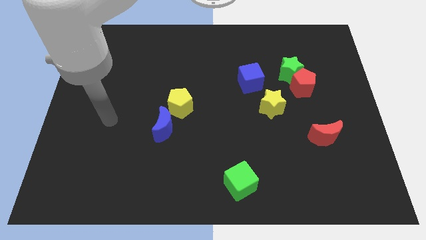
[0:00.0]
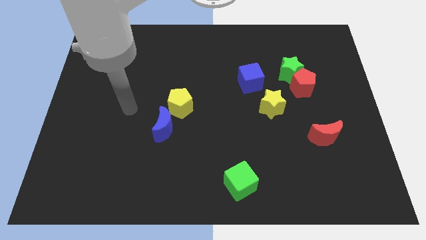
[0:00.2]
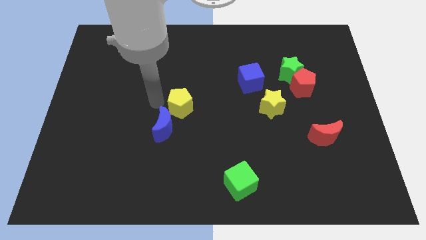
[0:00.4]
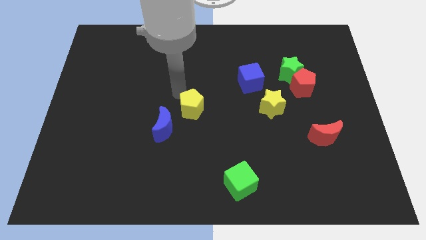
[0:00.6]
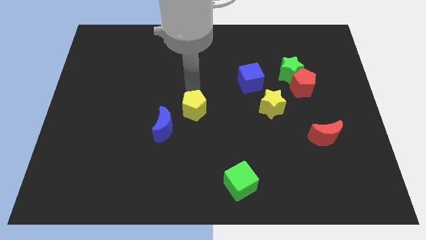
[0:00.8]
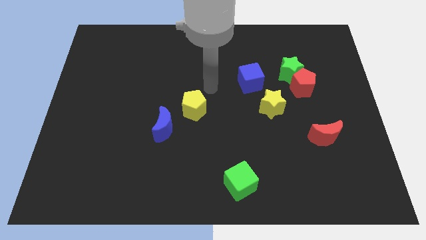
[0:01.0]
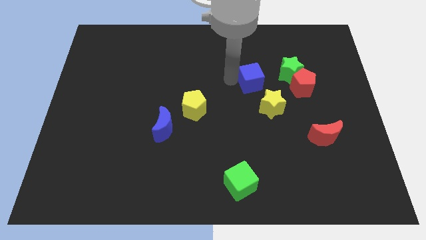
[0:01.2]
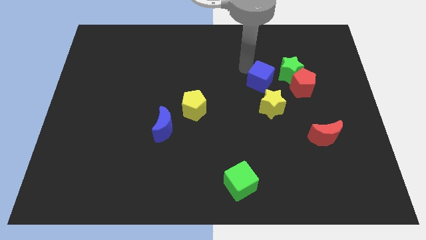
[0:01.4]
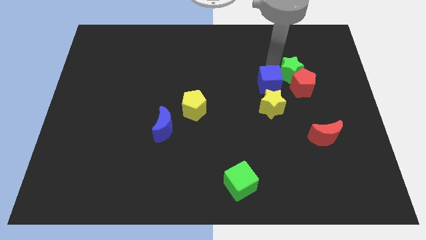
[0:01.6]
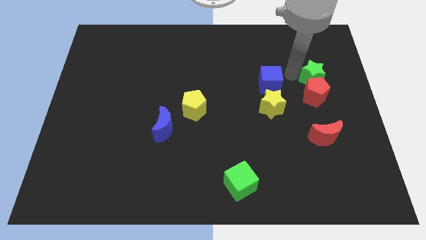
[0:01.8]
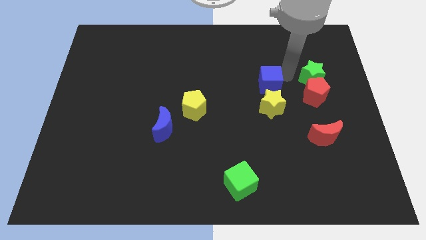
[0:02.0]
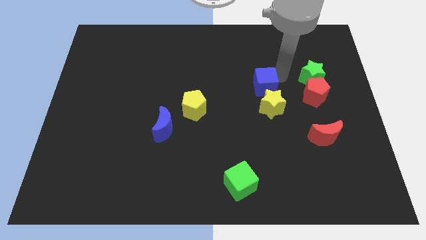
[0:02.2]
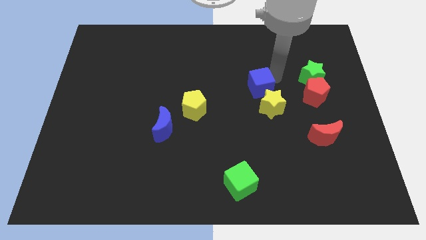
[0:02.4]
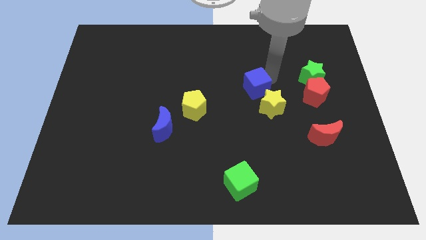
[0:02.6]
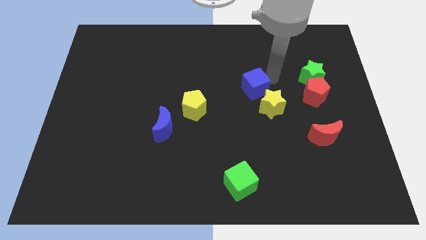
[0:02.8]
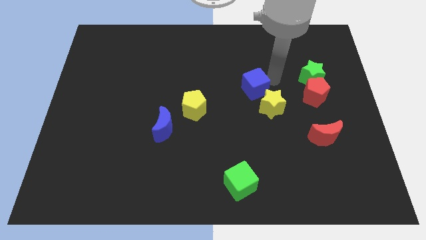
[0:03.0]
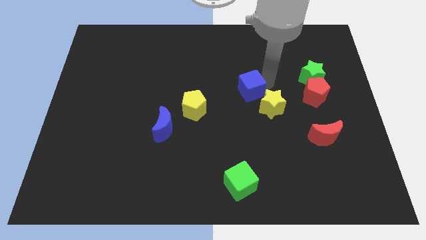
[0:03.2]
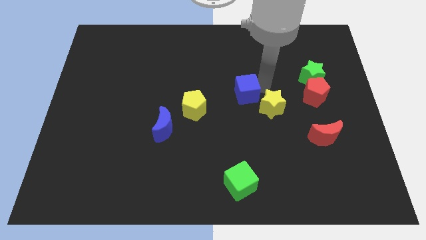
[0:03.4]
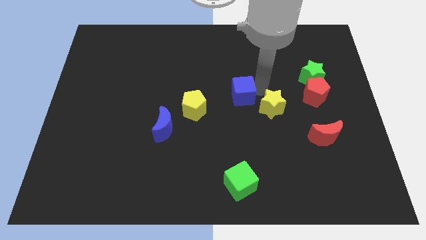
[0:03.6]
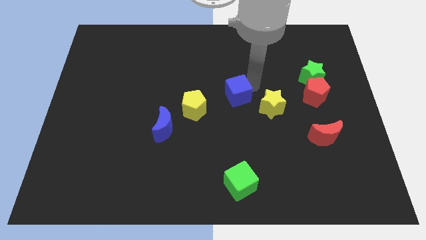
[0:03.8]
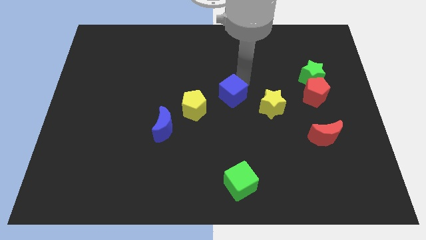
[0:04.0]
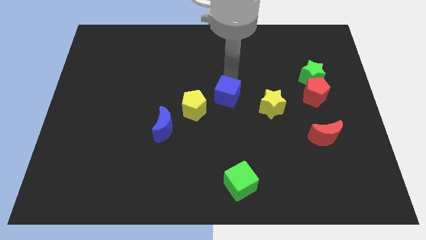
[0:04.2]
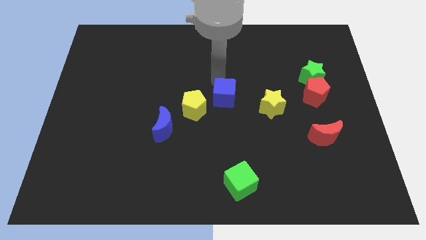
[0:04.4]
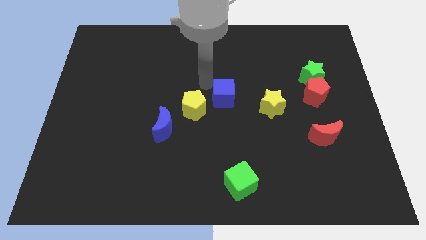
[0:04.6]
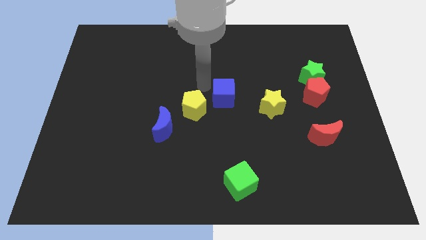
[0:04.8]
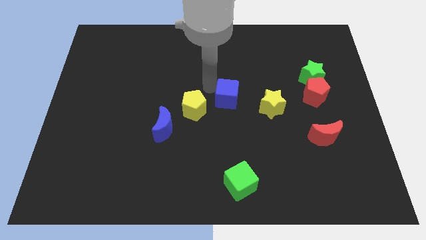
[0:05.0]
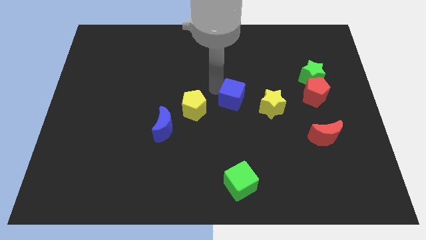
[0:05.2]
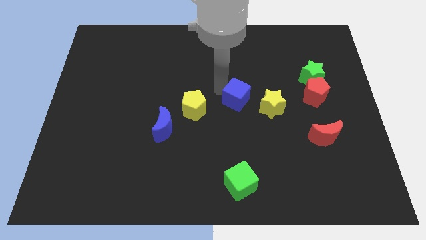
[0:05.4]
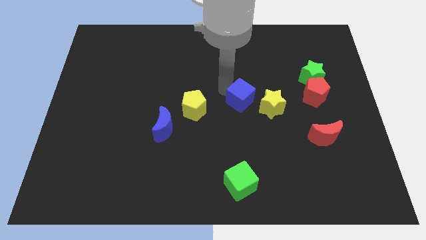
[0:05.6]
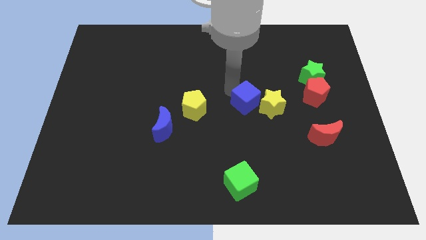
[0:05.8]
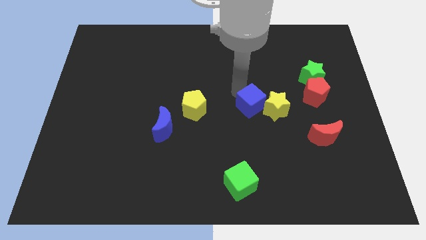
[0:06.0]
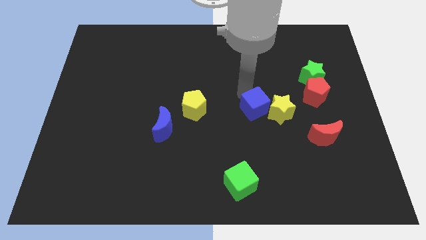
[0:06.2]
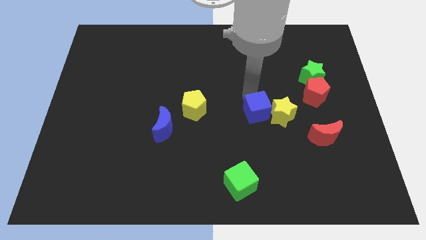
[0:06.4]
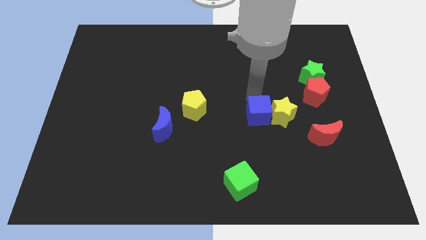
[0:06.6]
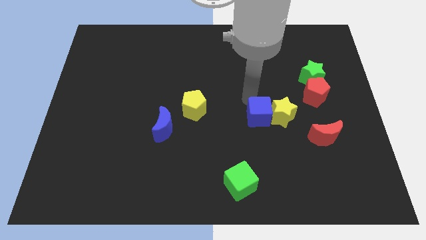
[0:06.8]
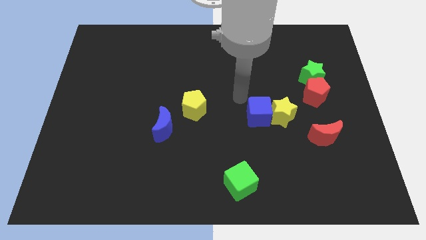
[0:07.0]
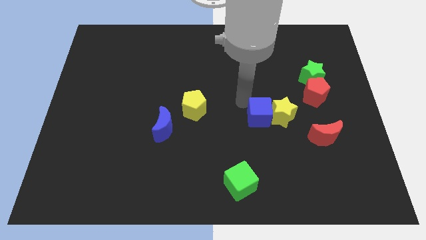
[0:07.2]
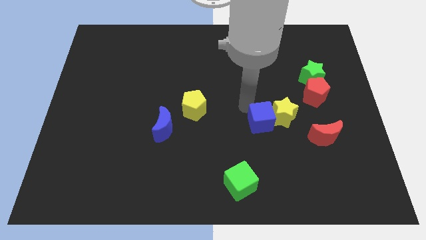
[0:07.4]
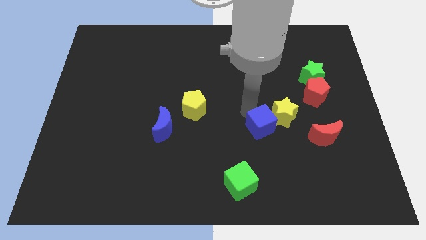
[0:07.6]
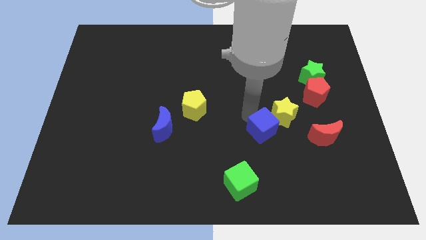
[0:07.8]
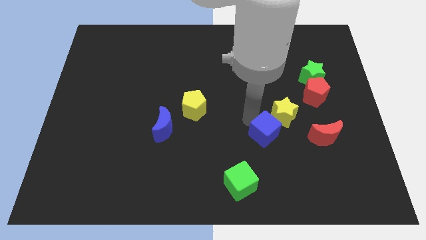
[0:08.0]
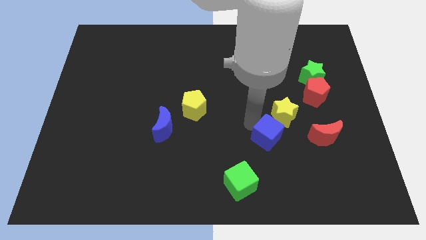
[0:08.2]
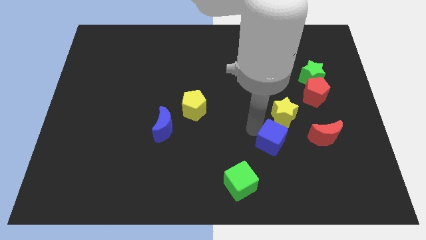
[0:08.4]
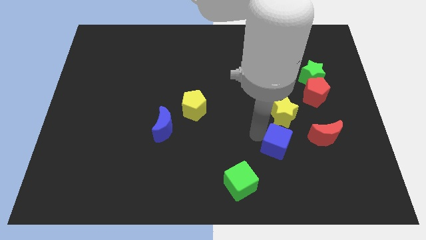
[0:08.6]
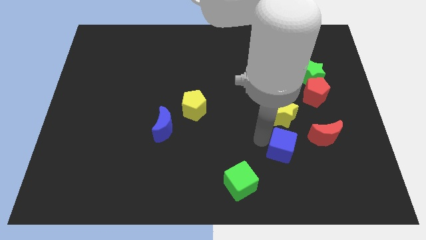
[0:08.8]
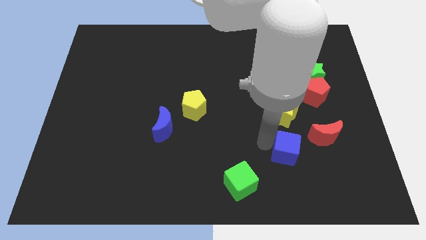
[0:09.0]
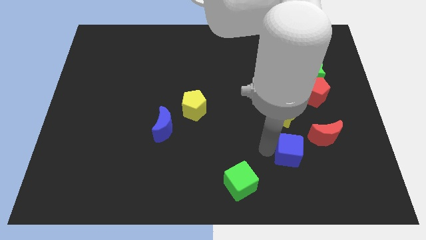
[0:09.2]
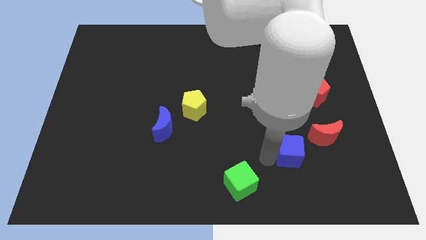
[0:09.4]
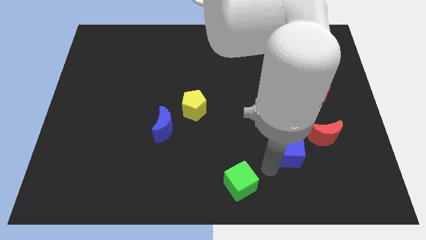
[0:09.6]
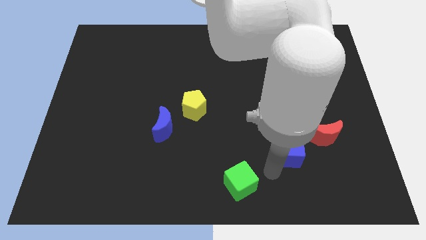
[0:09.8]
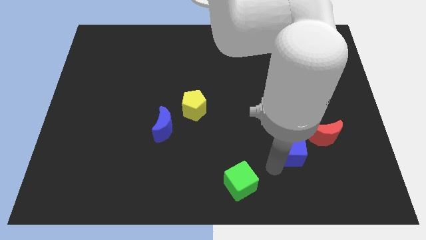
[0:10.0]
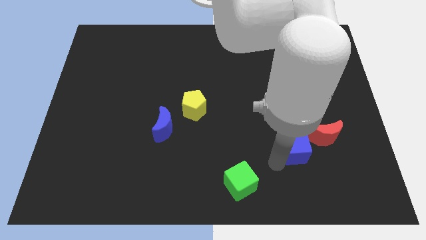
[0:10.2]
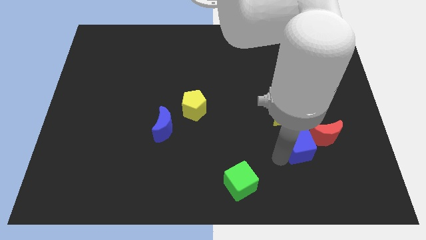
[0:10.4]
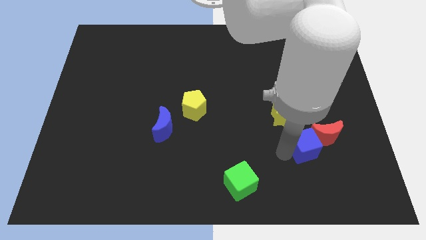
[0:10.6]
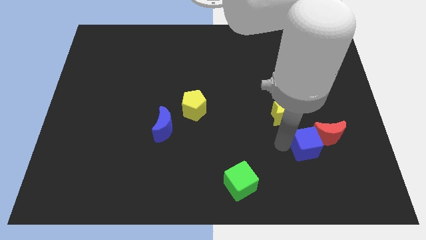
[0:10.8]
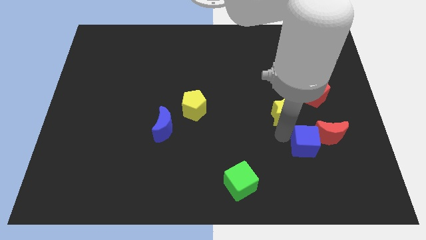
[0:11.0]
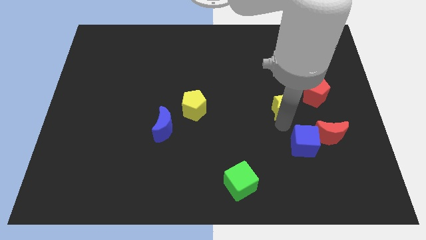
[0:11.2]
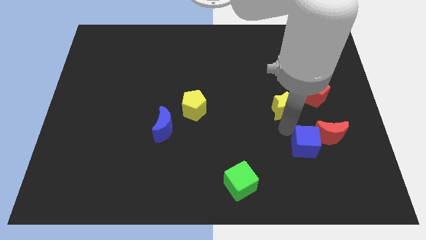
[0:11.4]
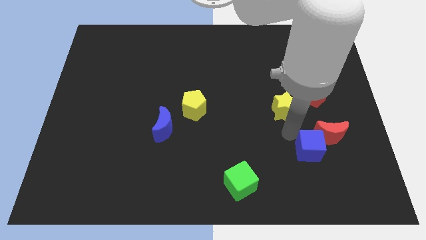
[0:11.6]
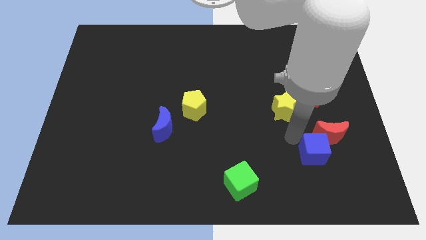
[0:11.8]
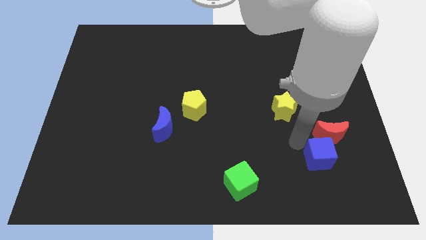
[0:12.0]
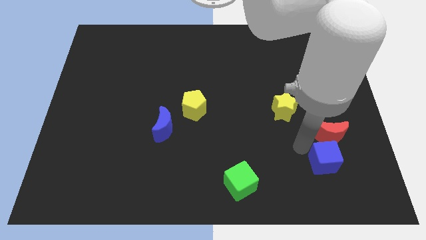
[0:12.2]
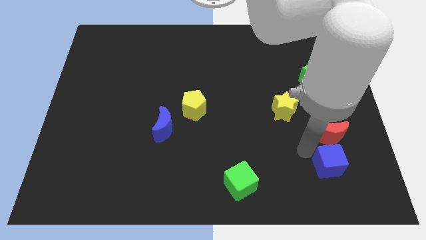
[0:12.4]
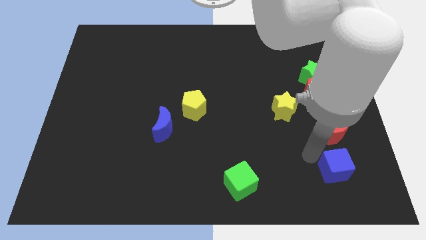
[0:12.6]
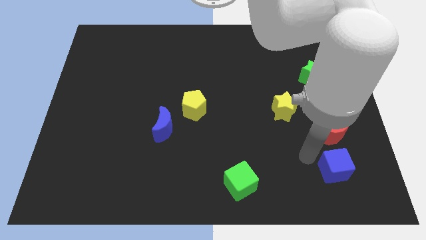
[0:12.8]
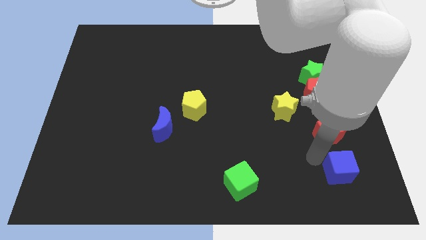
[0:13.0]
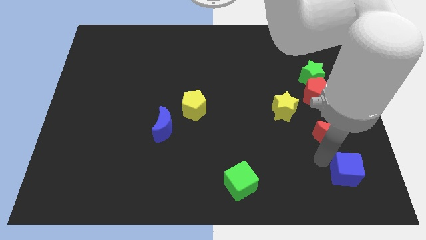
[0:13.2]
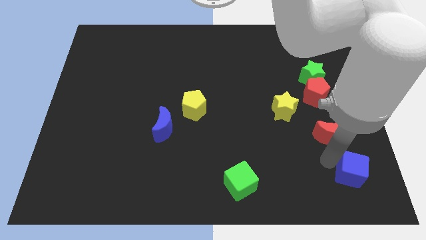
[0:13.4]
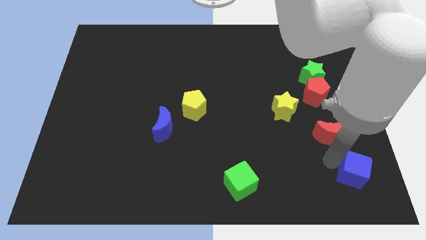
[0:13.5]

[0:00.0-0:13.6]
slide the blue cube to the bottom right corner
